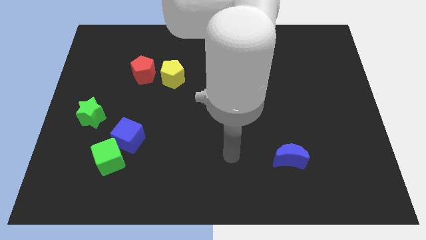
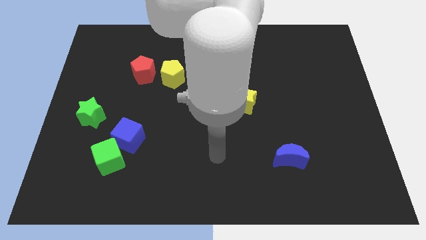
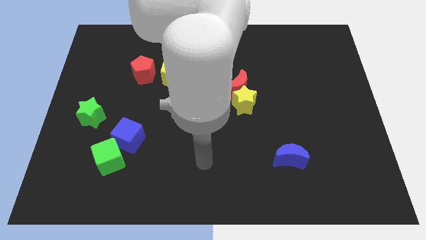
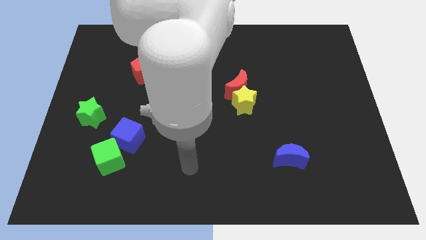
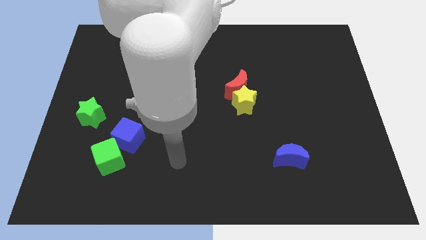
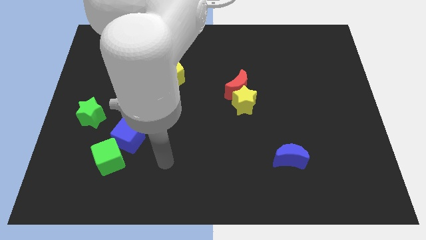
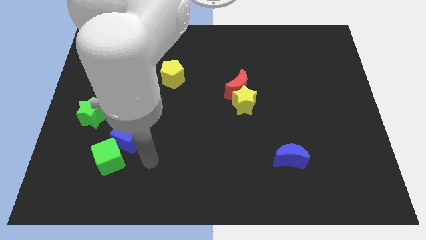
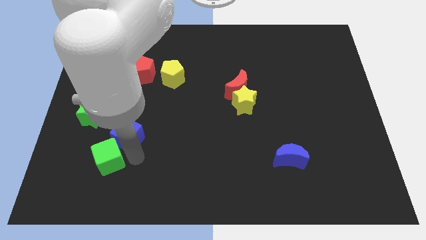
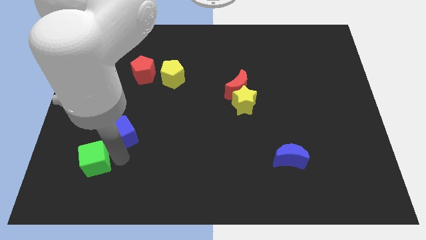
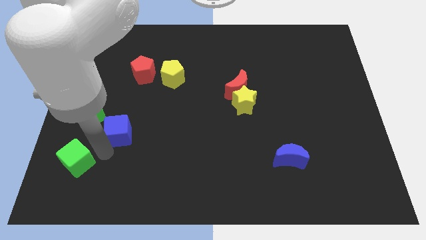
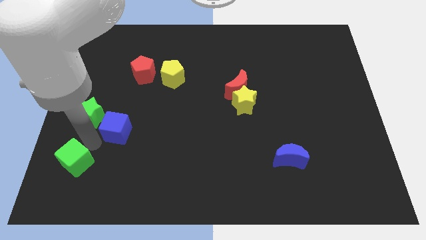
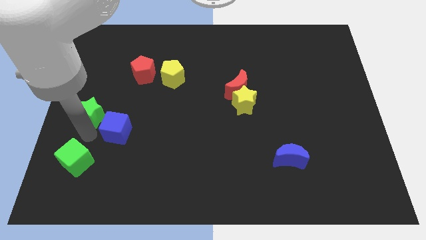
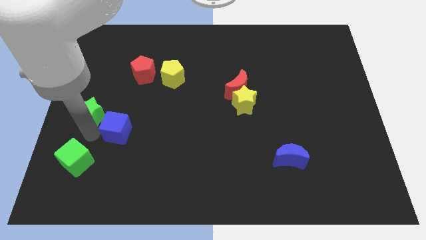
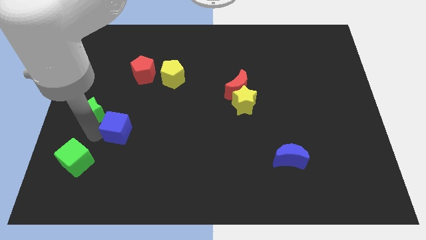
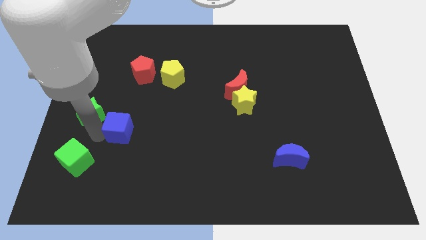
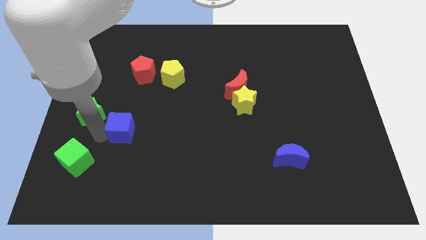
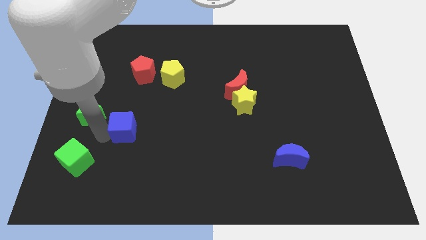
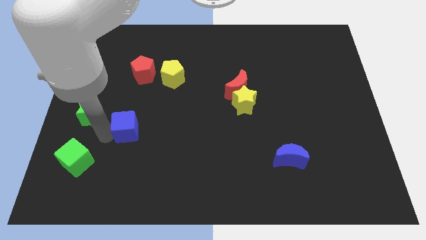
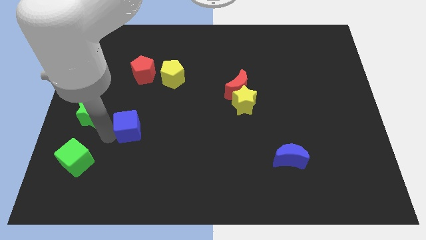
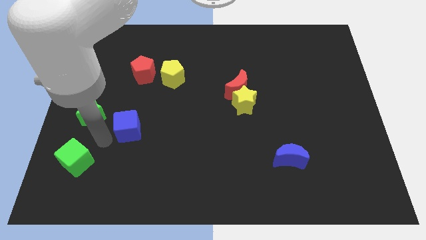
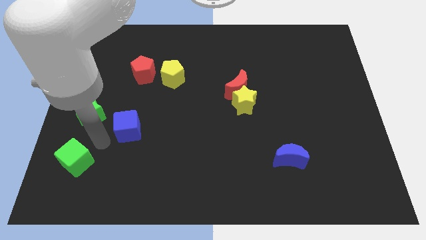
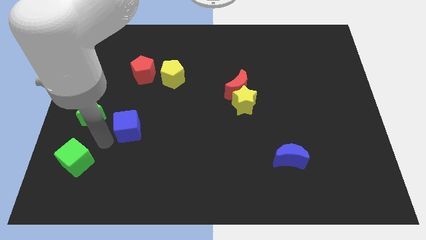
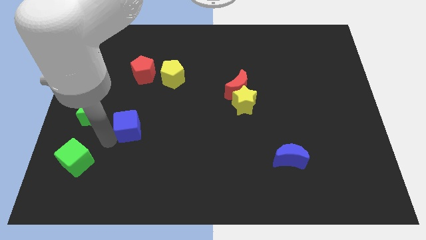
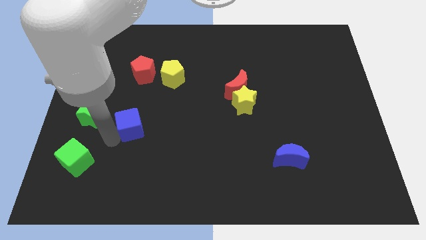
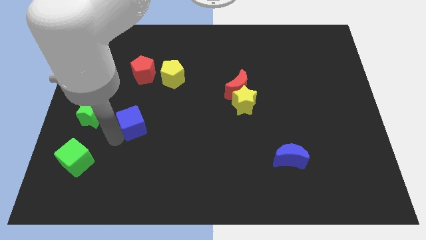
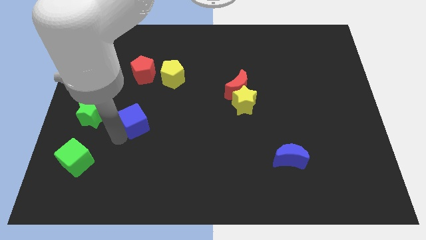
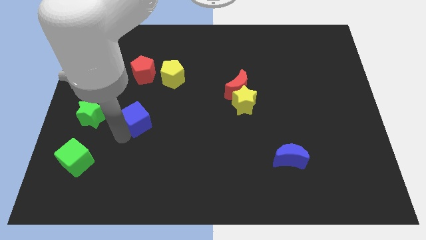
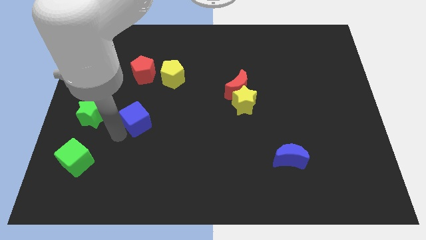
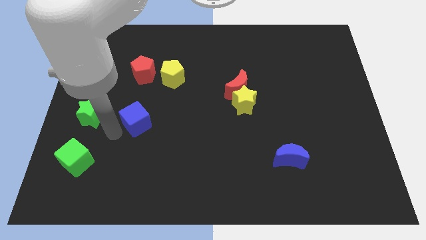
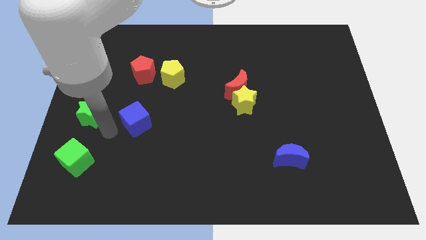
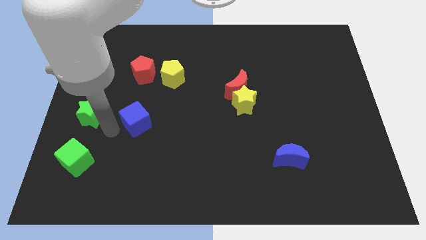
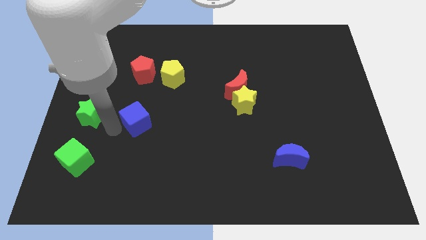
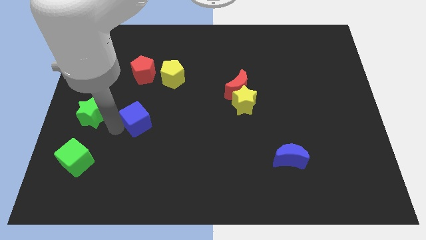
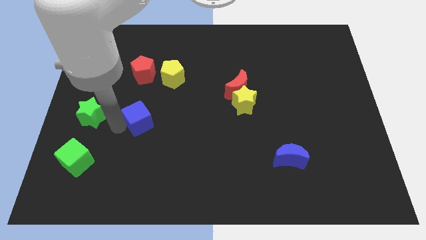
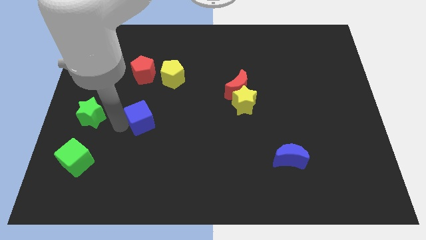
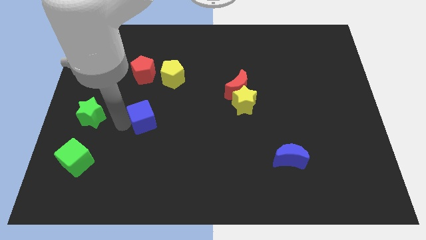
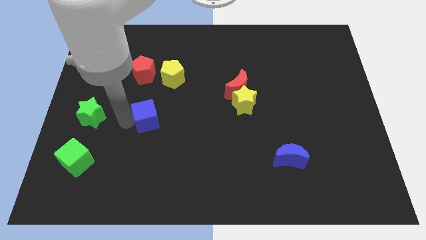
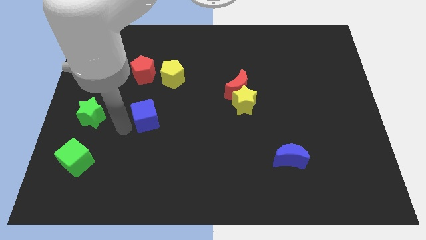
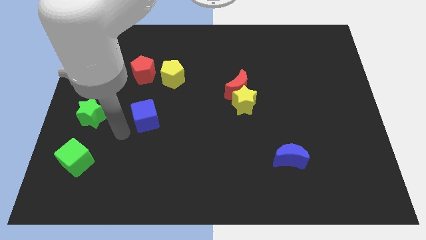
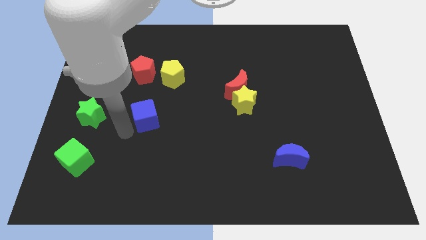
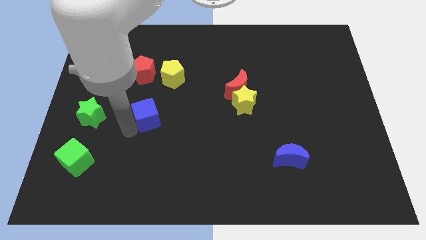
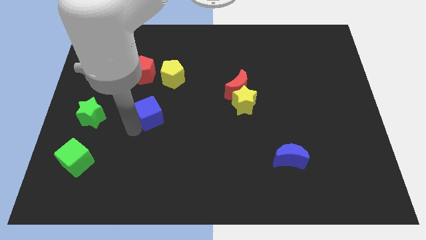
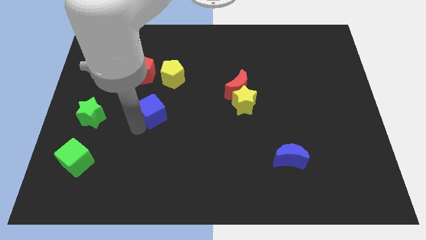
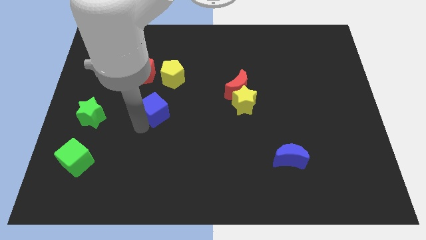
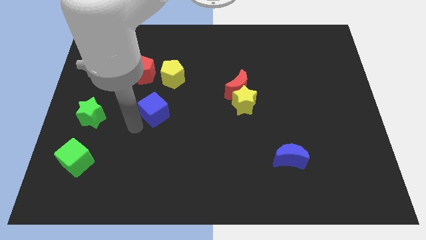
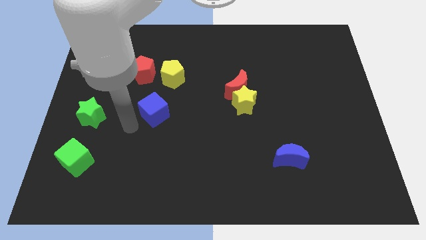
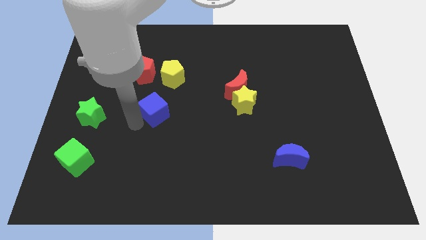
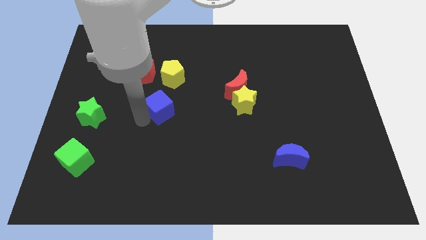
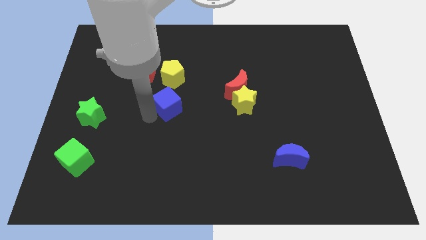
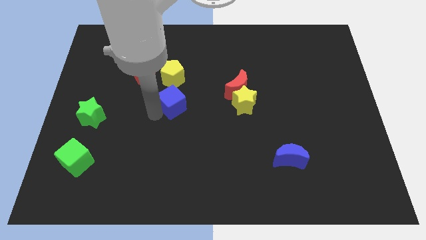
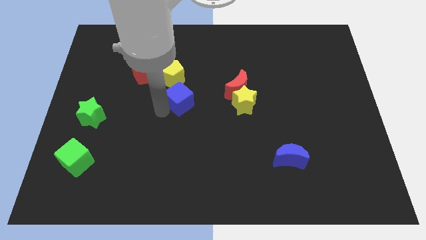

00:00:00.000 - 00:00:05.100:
push the blue cube to the left of the red moon

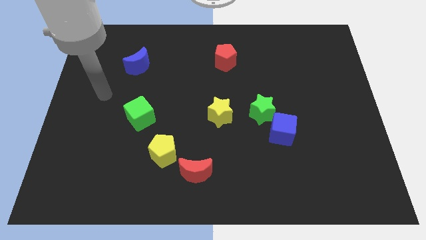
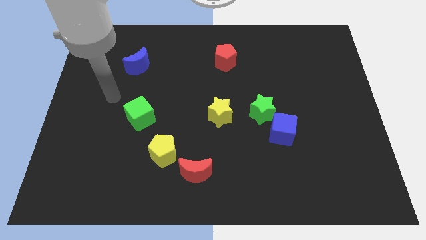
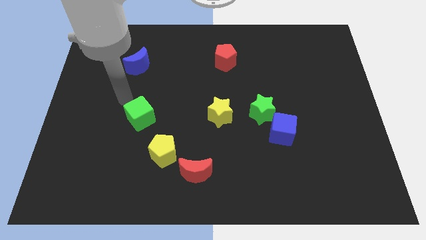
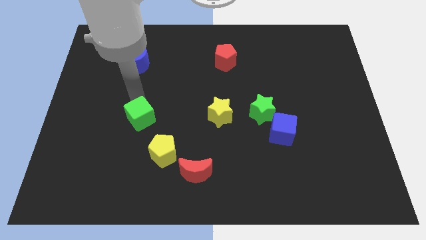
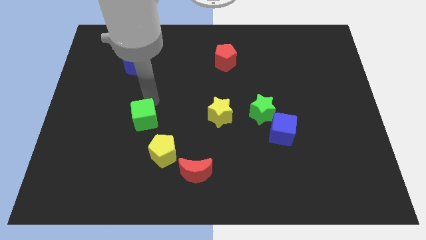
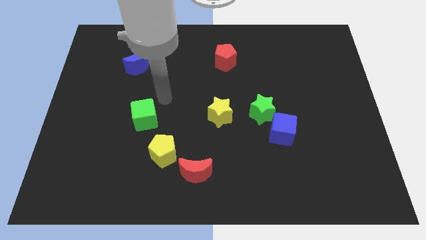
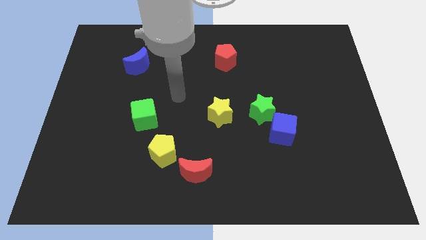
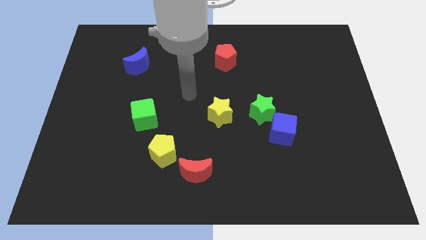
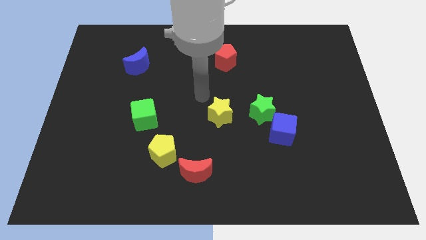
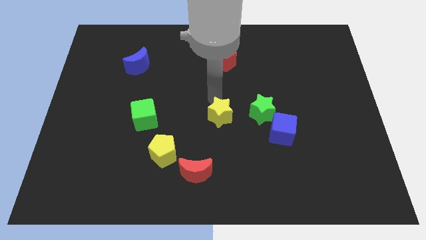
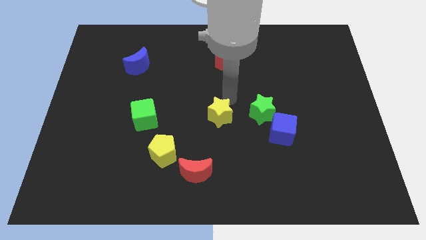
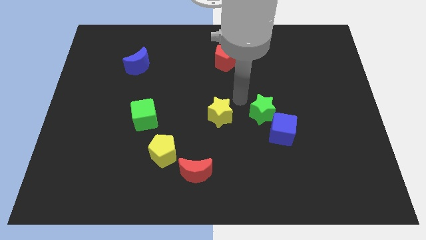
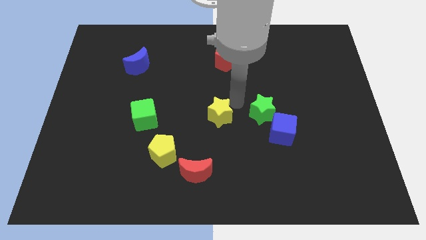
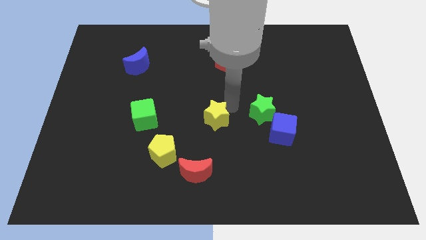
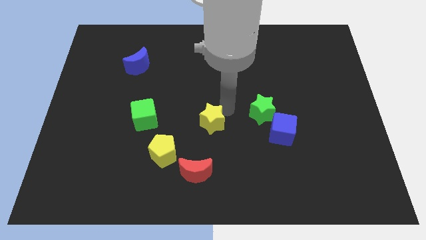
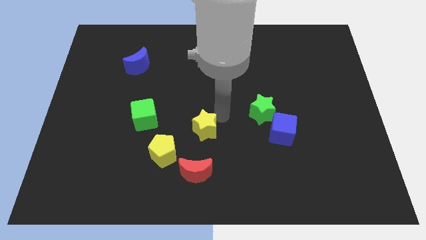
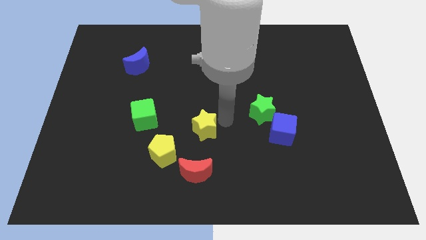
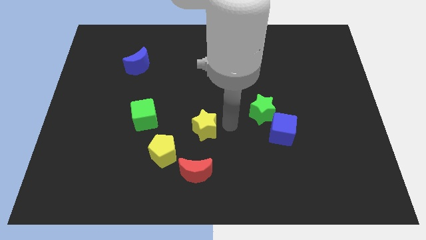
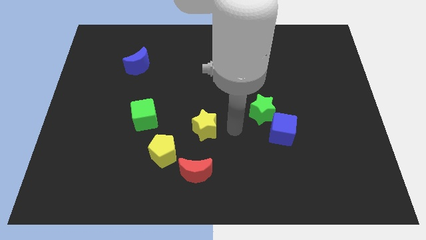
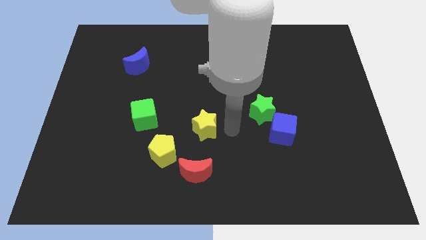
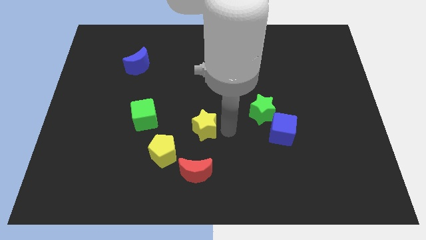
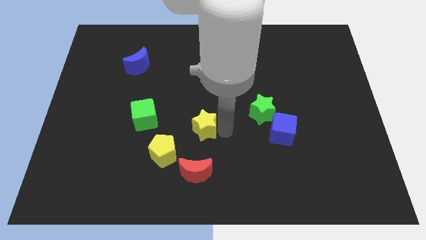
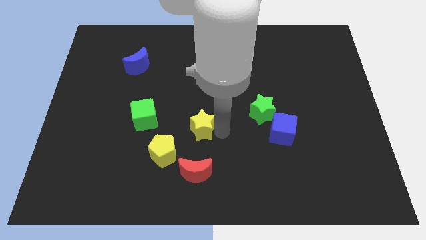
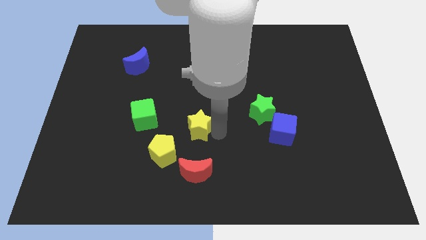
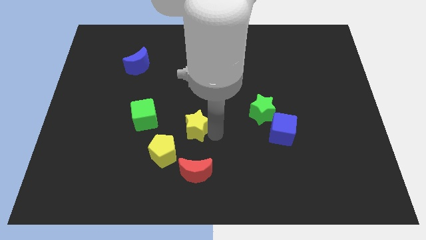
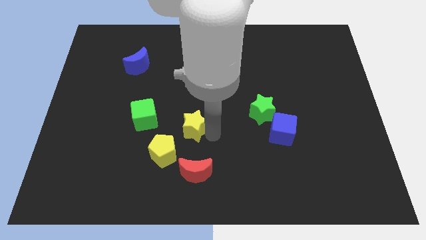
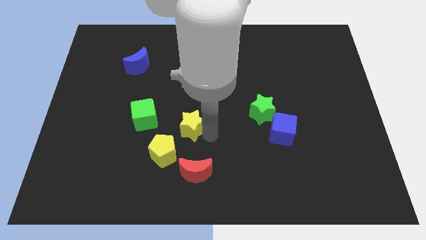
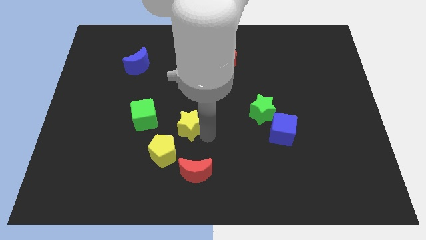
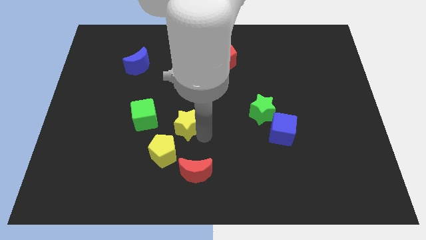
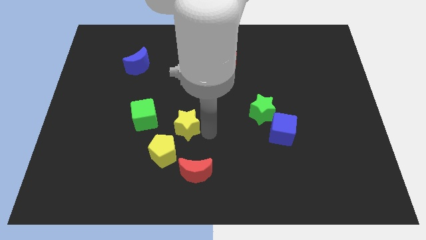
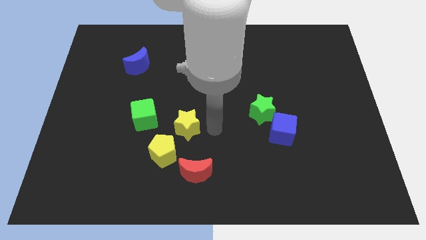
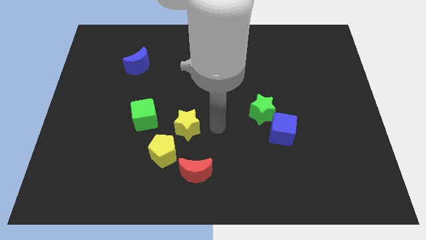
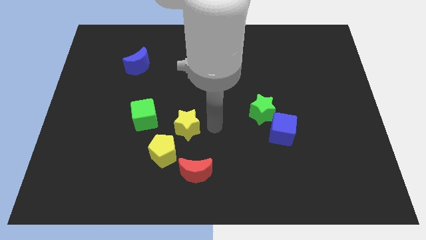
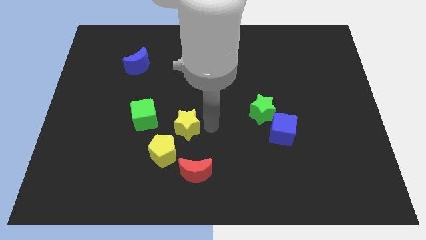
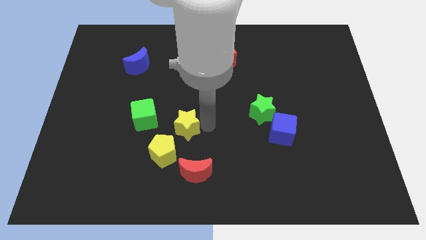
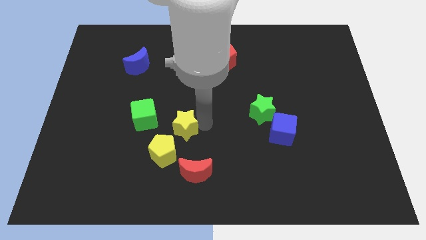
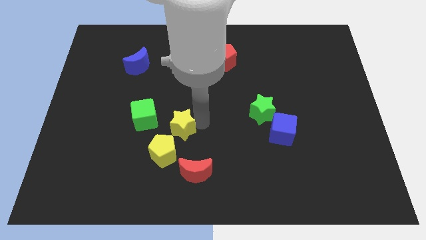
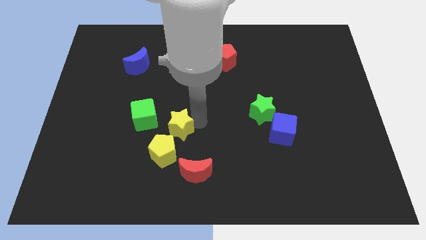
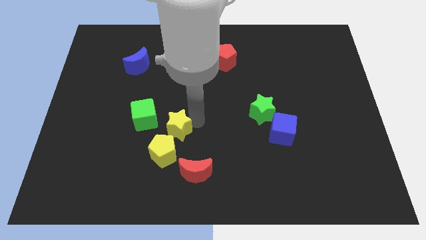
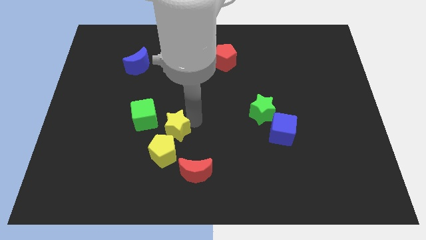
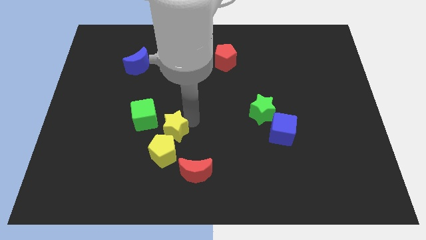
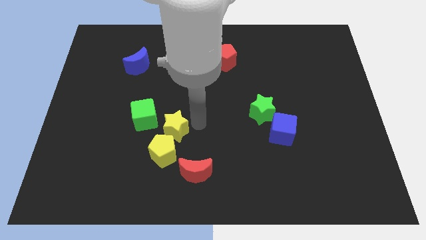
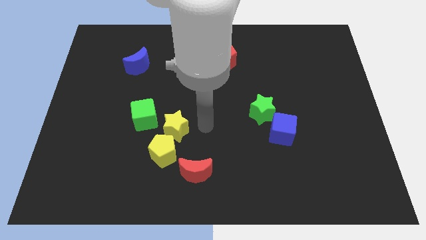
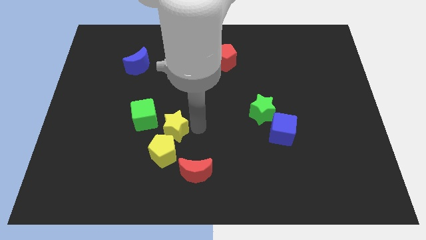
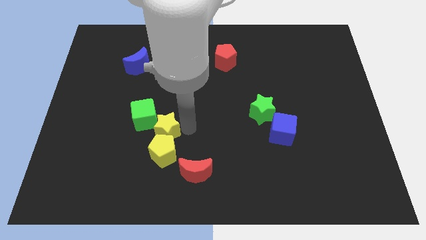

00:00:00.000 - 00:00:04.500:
put the yellow star to the top left side of the yellow pentagon
